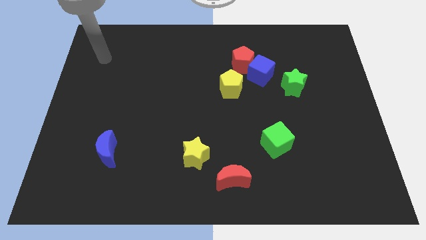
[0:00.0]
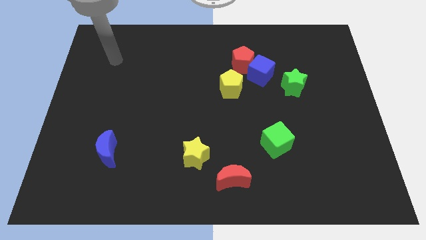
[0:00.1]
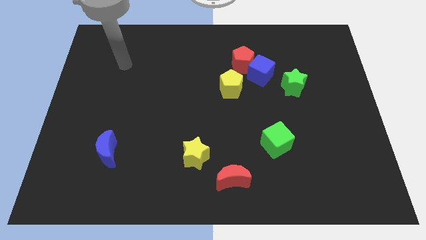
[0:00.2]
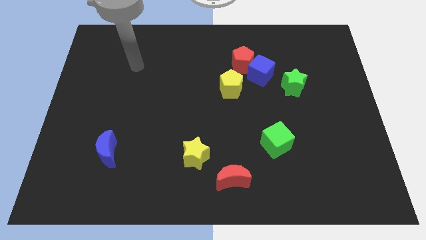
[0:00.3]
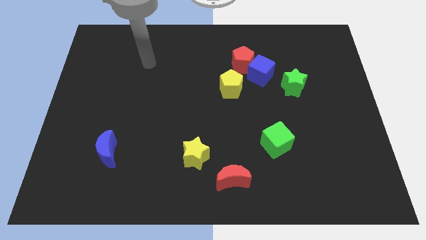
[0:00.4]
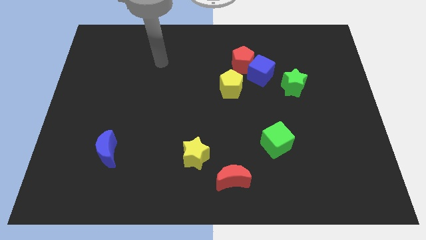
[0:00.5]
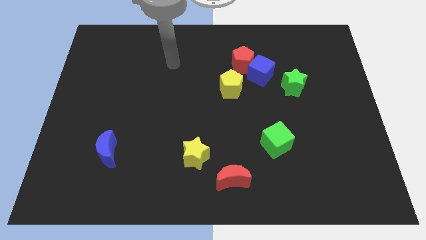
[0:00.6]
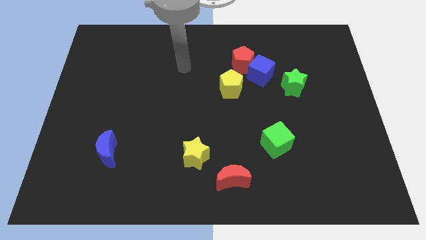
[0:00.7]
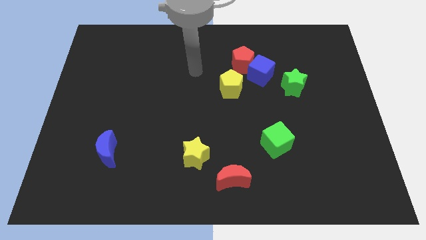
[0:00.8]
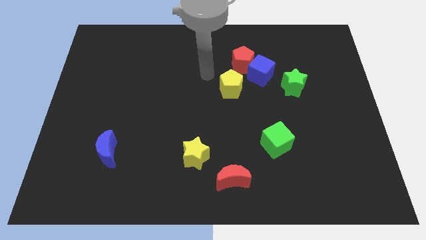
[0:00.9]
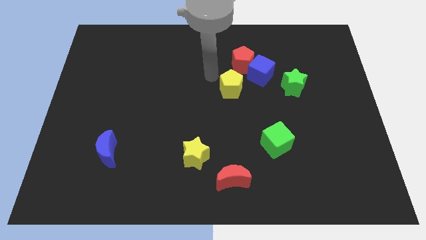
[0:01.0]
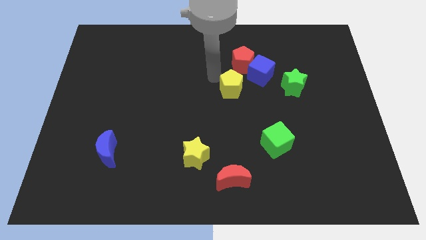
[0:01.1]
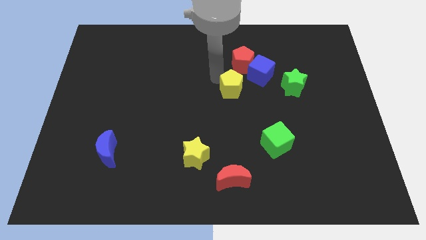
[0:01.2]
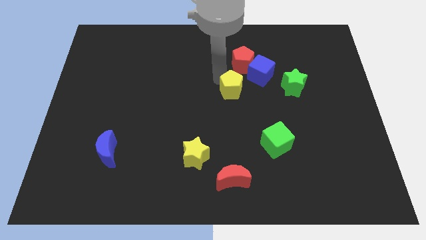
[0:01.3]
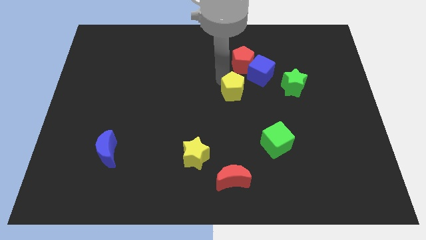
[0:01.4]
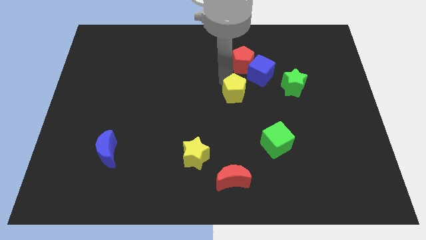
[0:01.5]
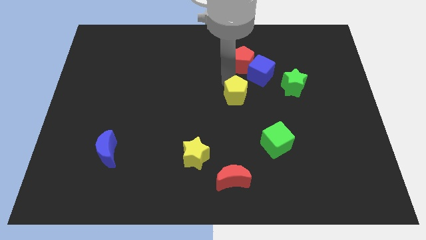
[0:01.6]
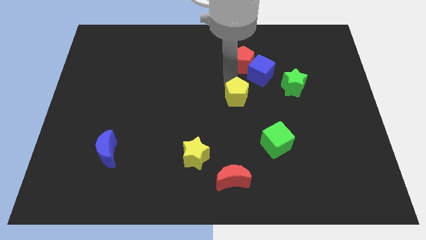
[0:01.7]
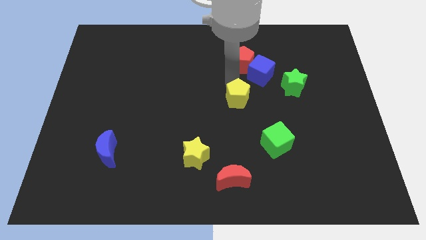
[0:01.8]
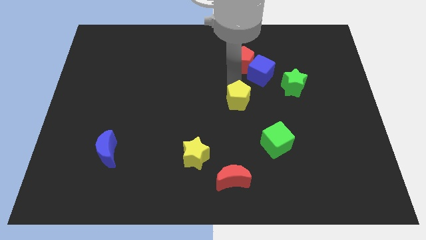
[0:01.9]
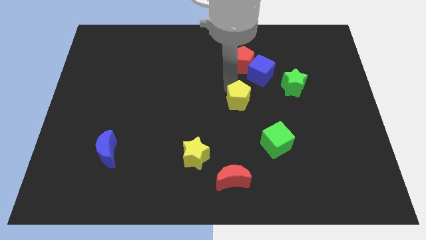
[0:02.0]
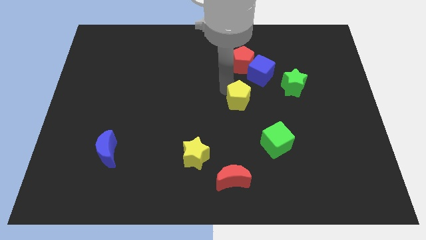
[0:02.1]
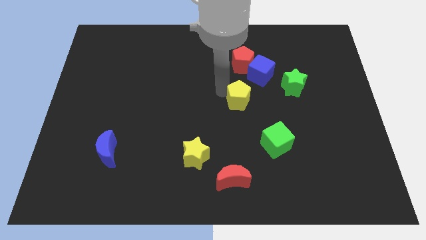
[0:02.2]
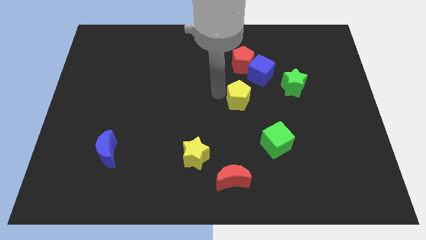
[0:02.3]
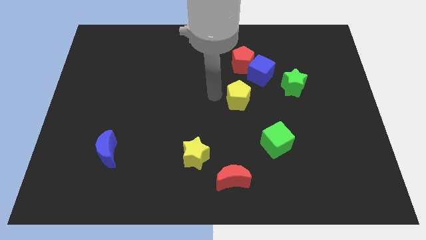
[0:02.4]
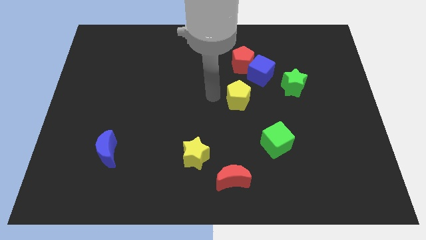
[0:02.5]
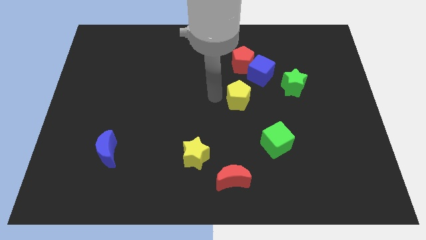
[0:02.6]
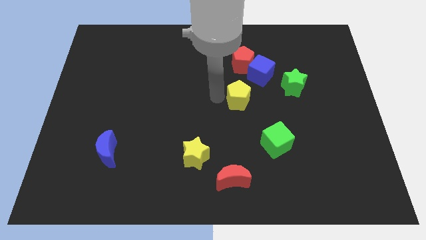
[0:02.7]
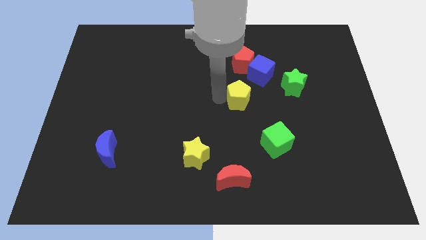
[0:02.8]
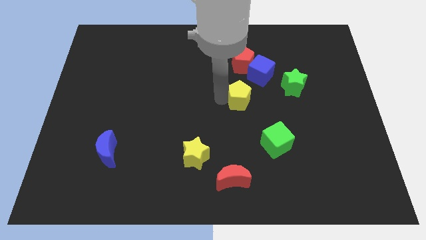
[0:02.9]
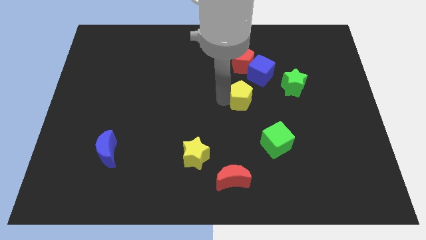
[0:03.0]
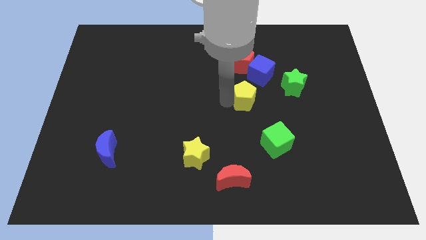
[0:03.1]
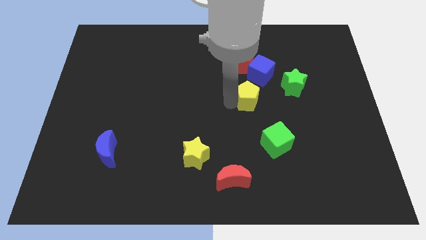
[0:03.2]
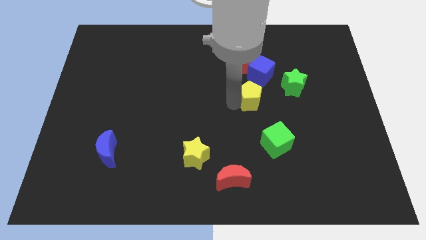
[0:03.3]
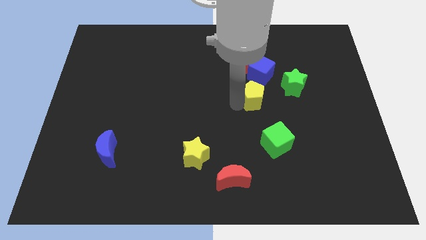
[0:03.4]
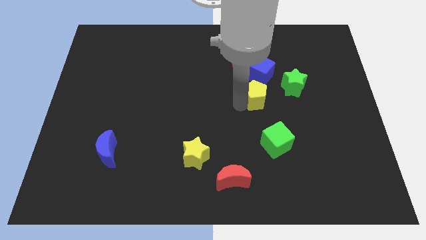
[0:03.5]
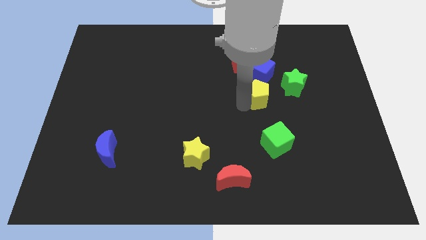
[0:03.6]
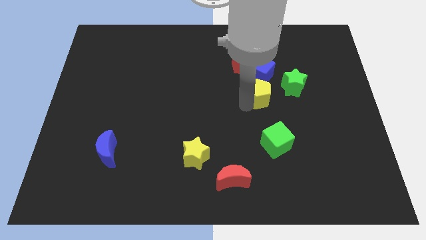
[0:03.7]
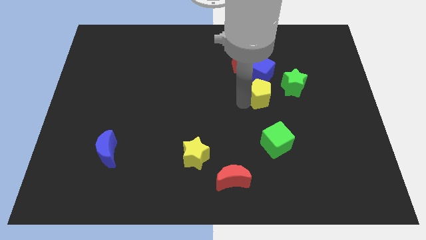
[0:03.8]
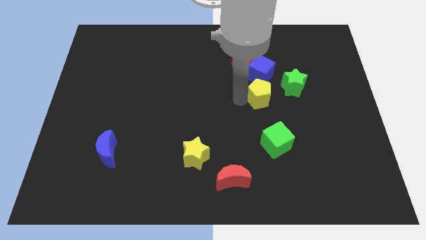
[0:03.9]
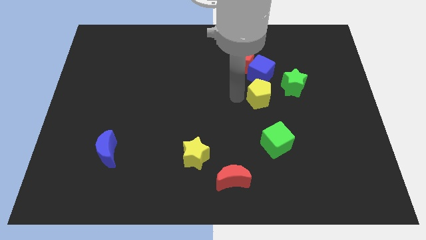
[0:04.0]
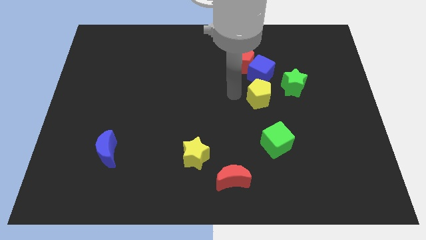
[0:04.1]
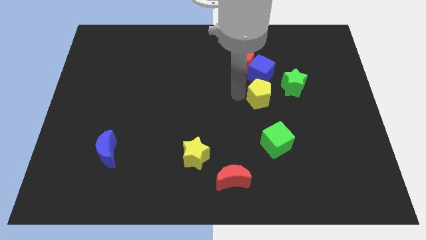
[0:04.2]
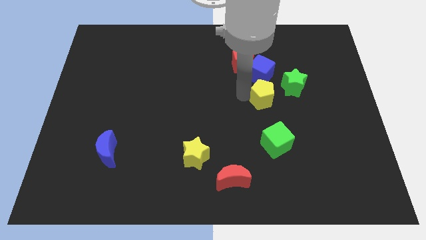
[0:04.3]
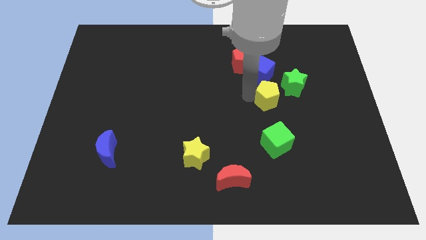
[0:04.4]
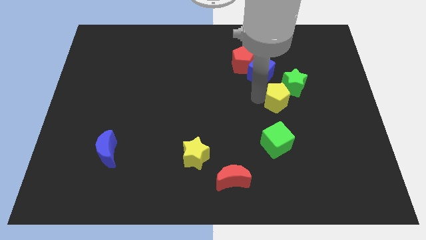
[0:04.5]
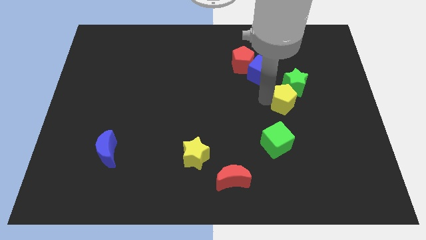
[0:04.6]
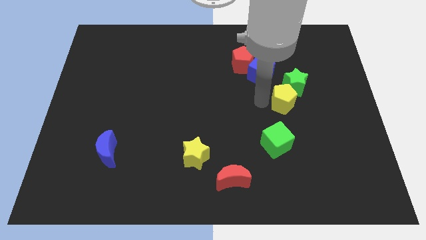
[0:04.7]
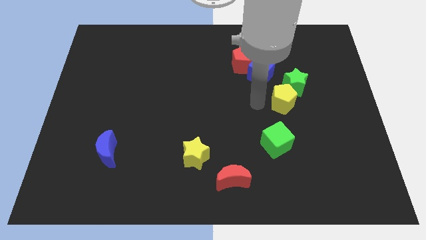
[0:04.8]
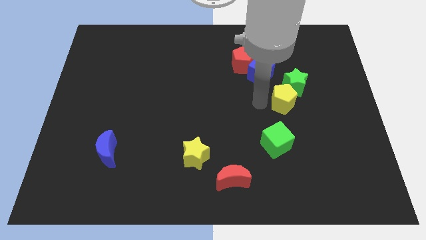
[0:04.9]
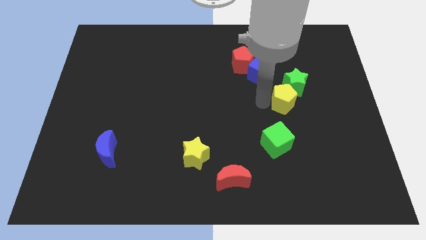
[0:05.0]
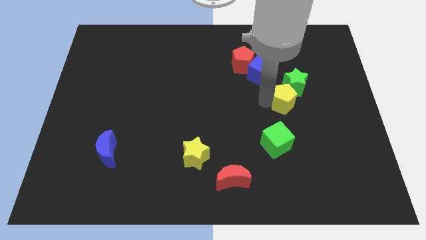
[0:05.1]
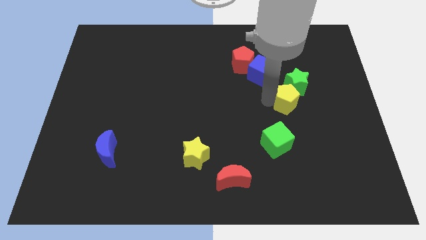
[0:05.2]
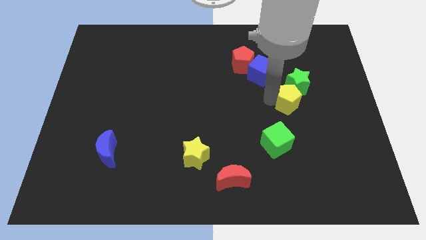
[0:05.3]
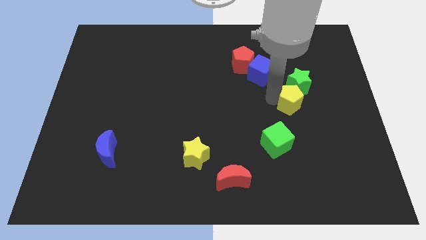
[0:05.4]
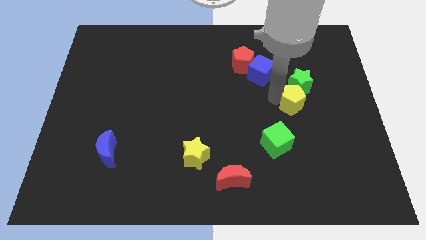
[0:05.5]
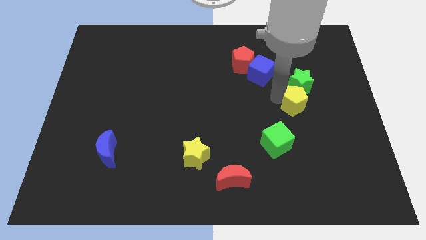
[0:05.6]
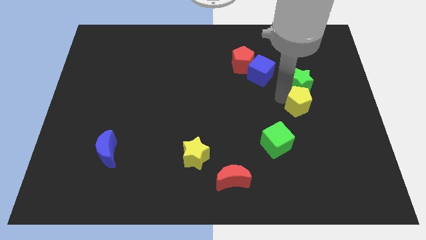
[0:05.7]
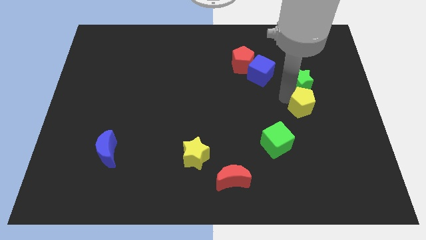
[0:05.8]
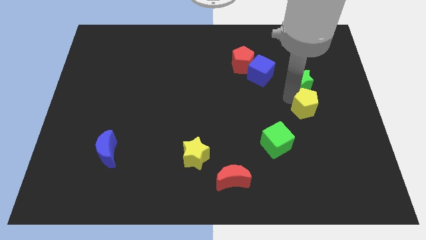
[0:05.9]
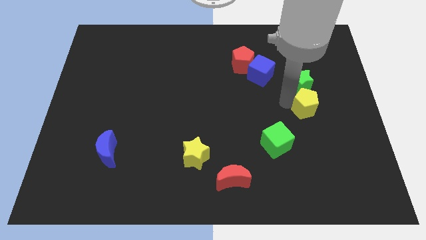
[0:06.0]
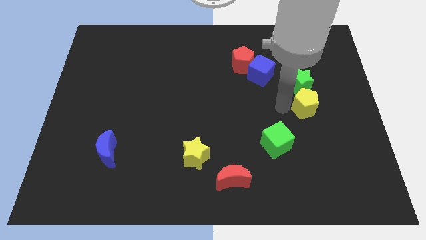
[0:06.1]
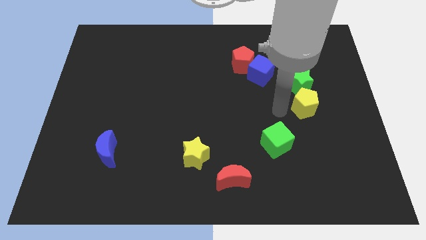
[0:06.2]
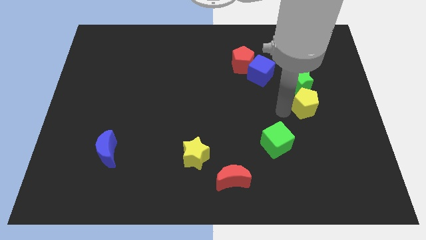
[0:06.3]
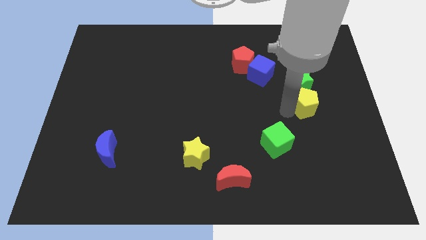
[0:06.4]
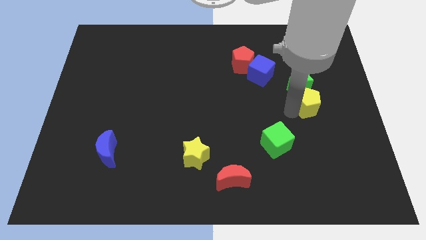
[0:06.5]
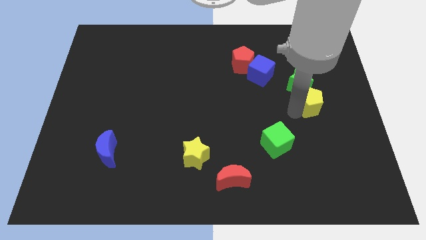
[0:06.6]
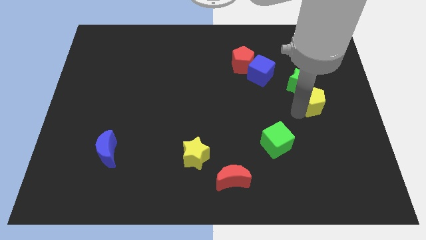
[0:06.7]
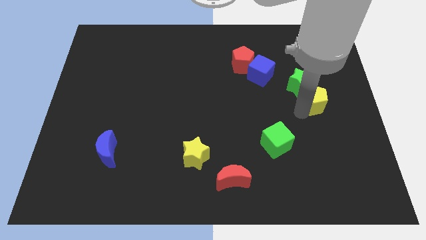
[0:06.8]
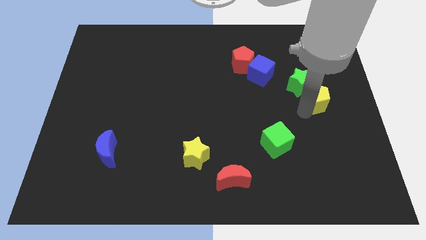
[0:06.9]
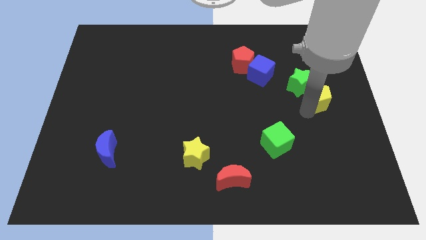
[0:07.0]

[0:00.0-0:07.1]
put the yellow pentagon to the right side
